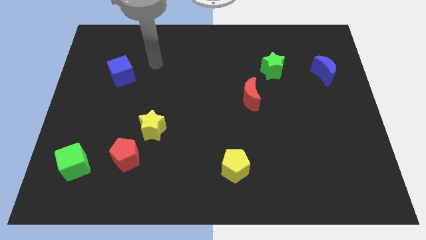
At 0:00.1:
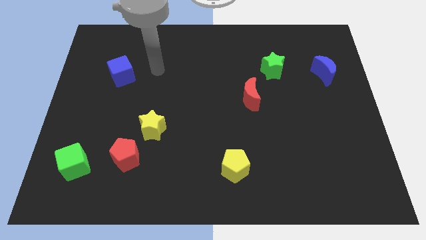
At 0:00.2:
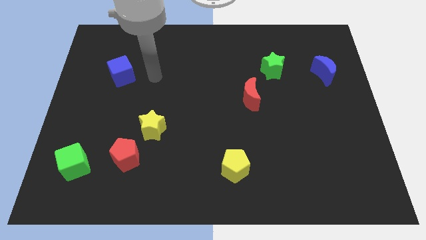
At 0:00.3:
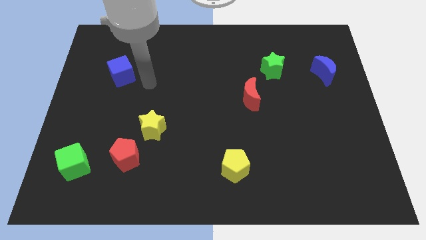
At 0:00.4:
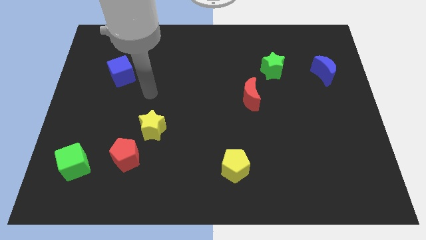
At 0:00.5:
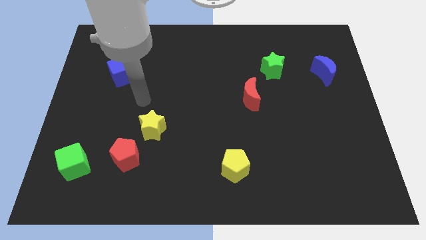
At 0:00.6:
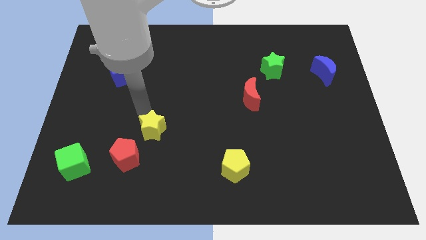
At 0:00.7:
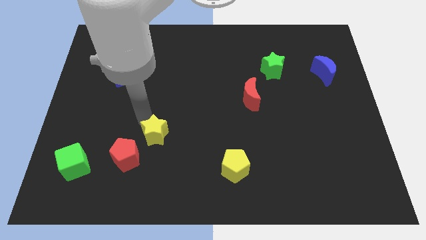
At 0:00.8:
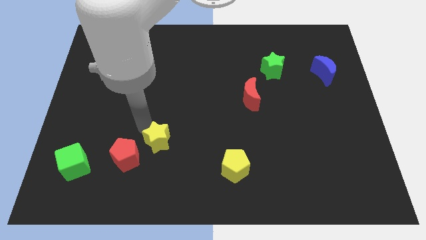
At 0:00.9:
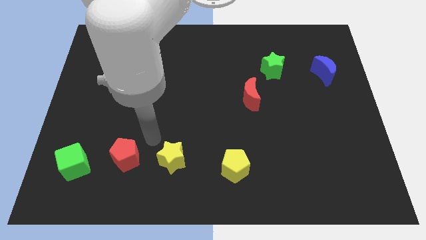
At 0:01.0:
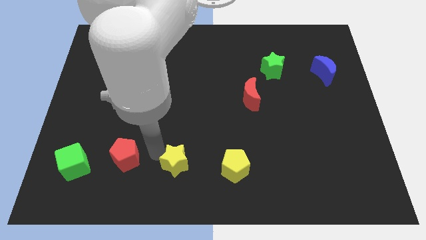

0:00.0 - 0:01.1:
pull the red pentagon apart from the yellow star

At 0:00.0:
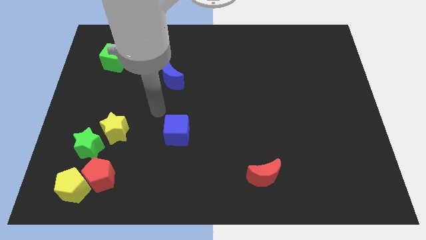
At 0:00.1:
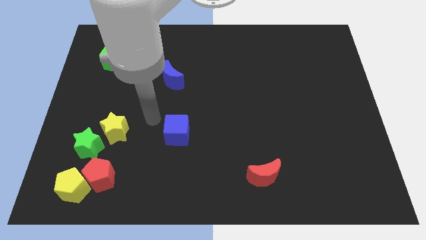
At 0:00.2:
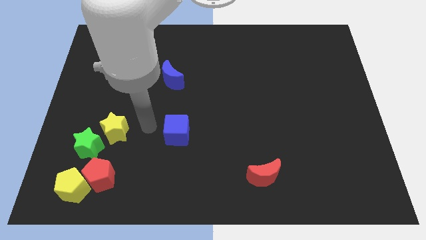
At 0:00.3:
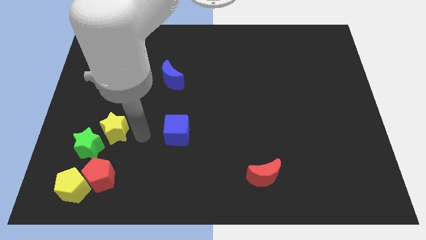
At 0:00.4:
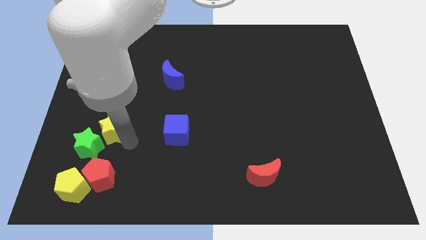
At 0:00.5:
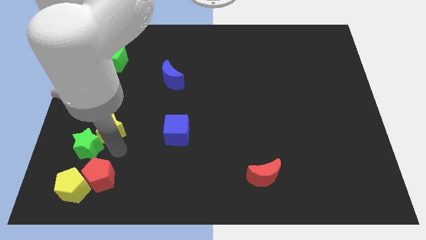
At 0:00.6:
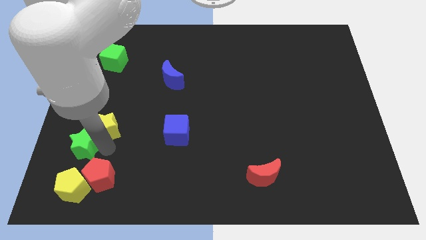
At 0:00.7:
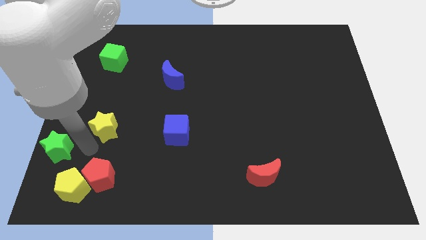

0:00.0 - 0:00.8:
move the yellow star away from the green star

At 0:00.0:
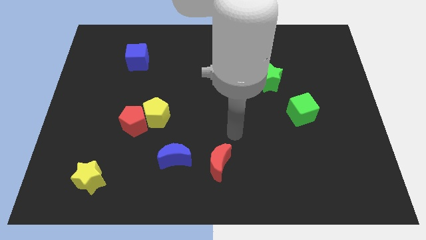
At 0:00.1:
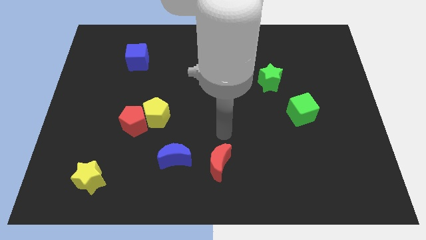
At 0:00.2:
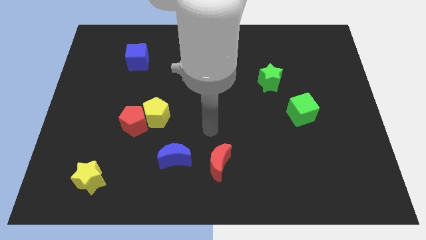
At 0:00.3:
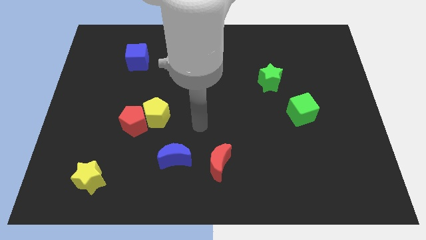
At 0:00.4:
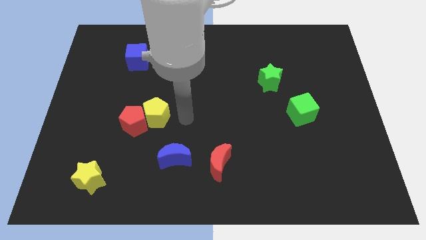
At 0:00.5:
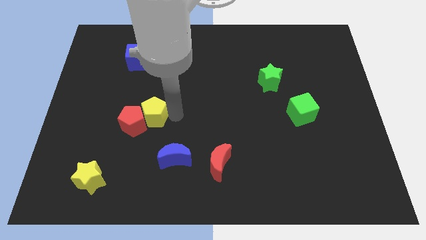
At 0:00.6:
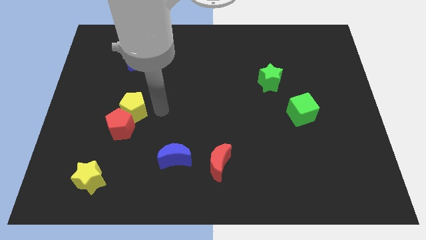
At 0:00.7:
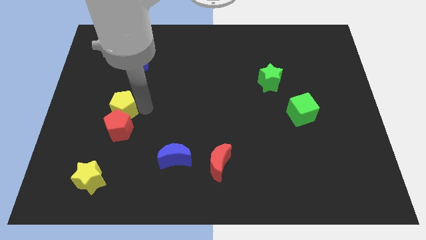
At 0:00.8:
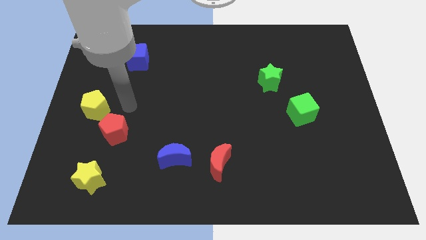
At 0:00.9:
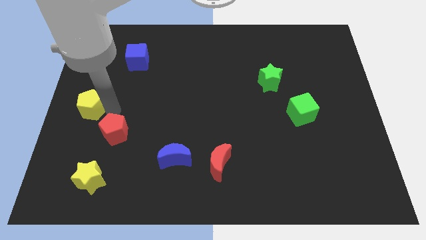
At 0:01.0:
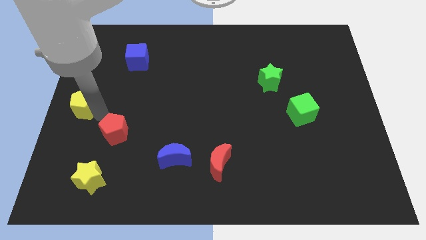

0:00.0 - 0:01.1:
separate the red pentagon from the yellow pentagon

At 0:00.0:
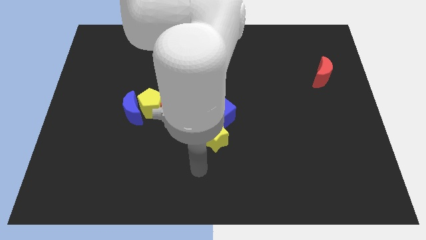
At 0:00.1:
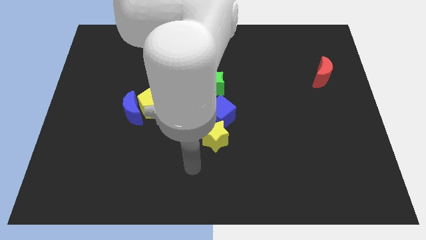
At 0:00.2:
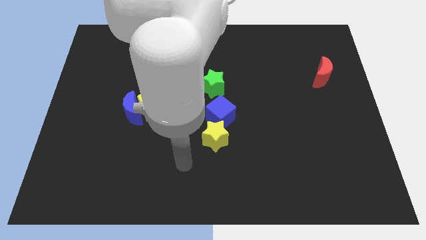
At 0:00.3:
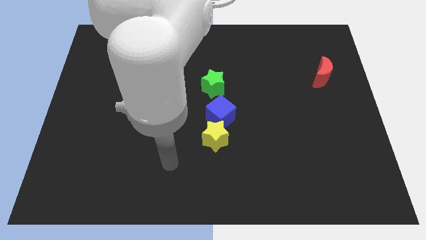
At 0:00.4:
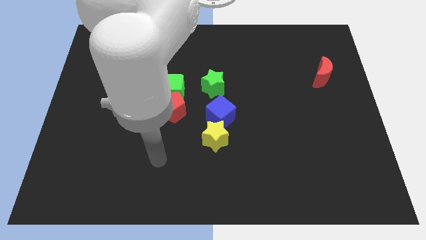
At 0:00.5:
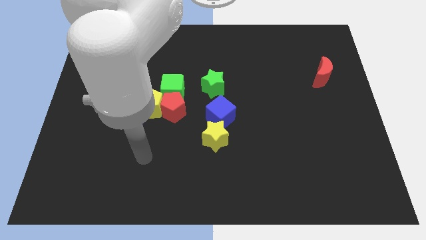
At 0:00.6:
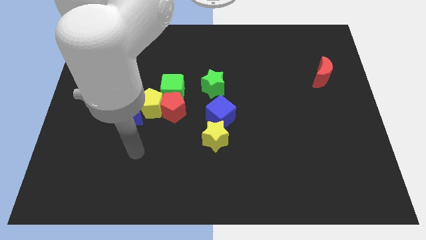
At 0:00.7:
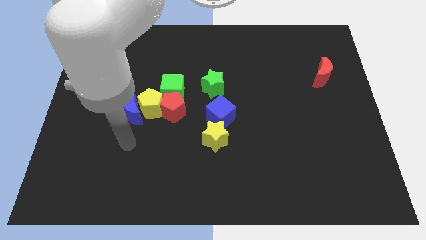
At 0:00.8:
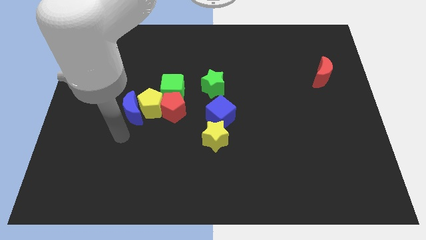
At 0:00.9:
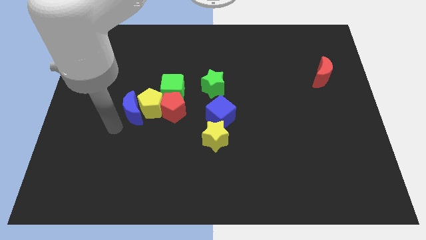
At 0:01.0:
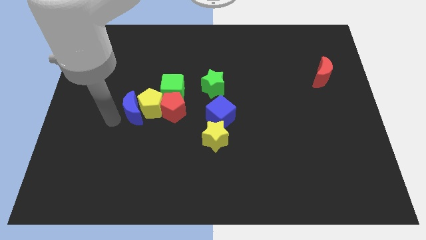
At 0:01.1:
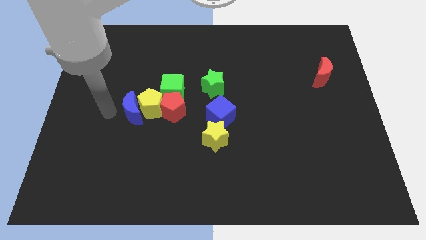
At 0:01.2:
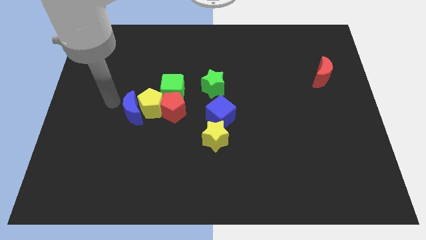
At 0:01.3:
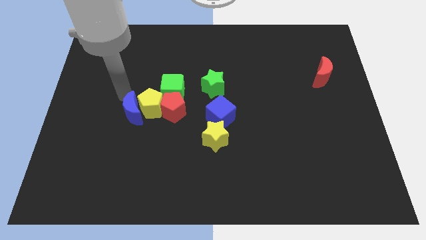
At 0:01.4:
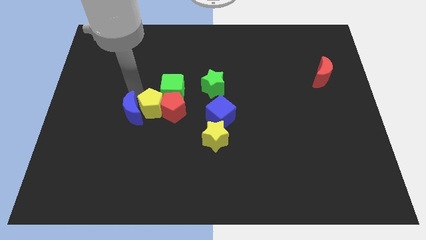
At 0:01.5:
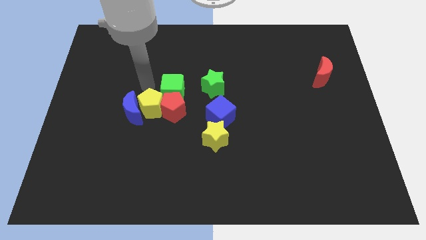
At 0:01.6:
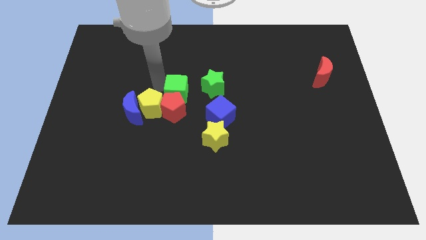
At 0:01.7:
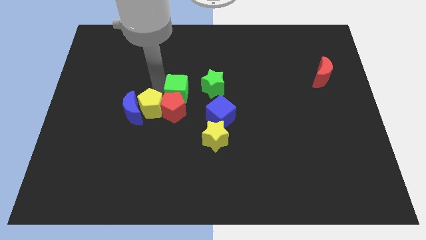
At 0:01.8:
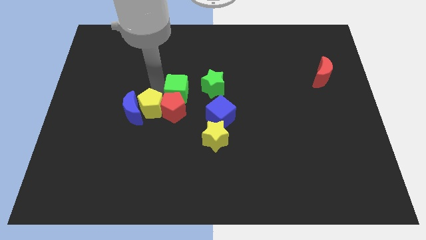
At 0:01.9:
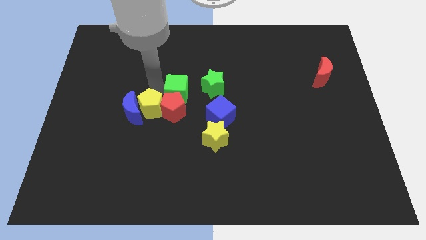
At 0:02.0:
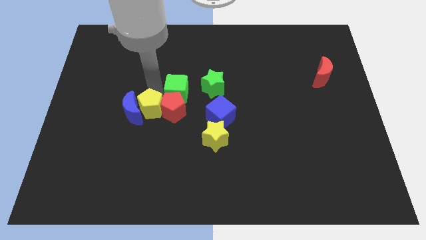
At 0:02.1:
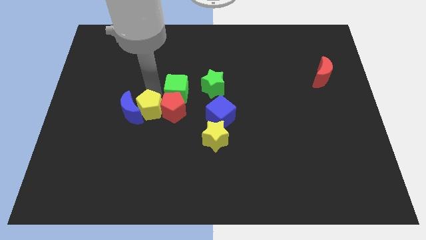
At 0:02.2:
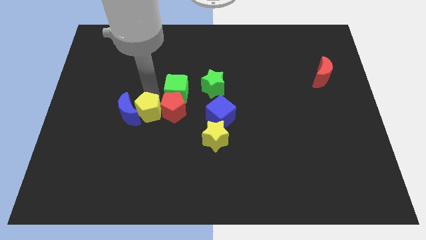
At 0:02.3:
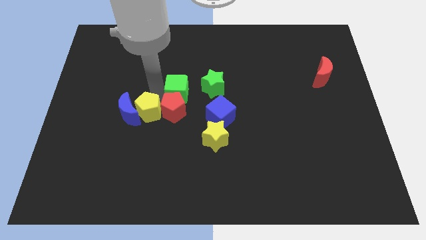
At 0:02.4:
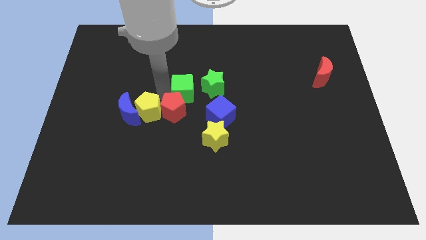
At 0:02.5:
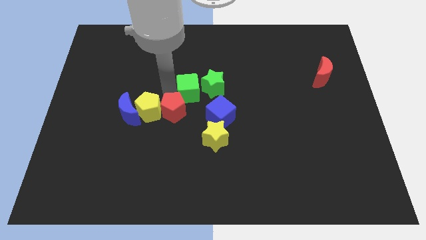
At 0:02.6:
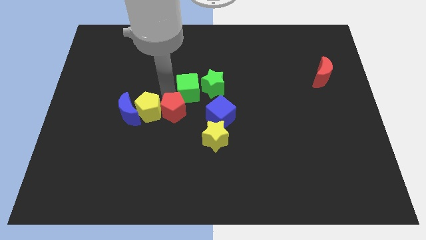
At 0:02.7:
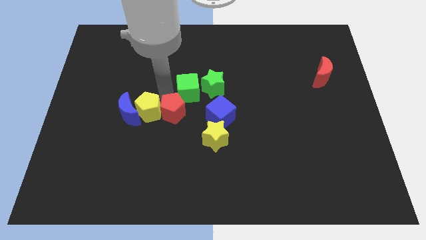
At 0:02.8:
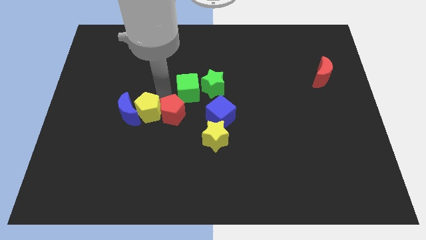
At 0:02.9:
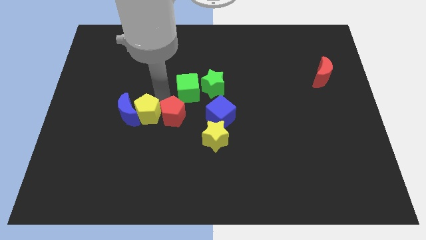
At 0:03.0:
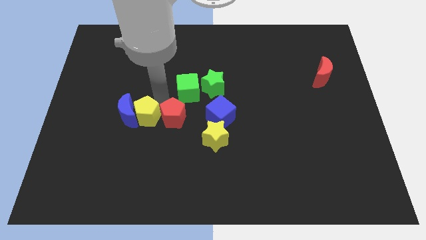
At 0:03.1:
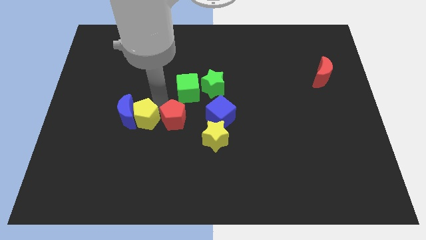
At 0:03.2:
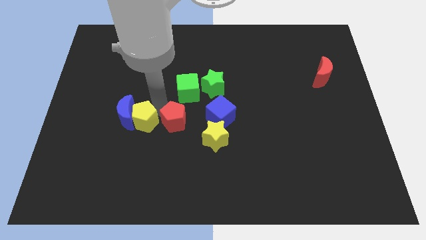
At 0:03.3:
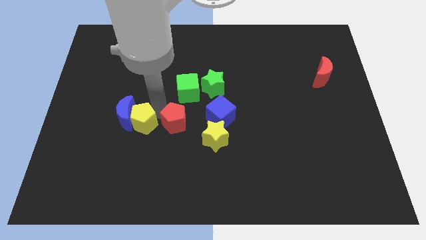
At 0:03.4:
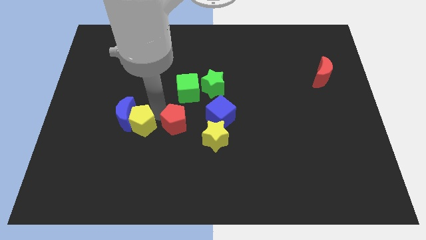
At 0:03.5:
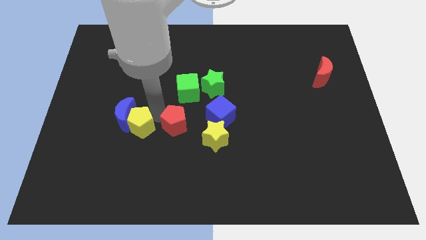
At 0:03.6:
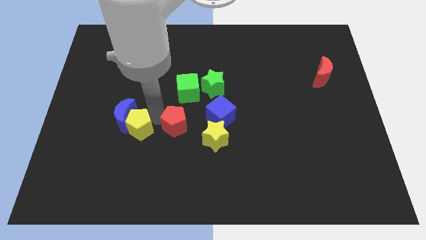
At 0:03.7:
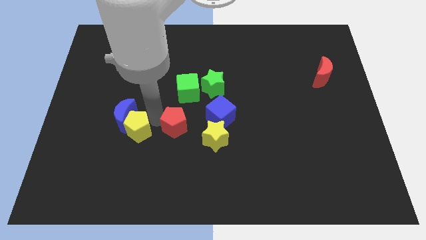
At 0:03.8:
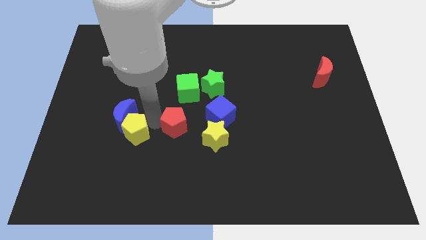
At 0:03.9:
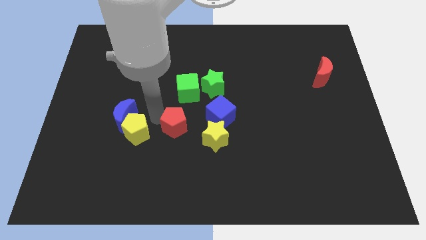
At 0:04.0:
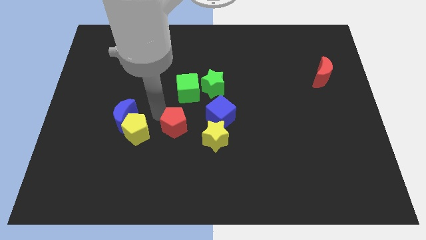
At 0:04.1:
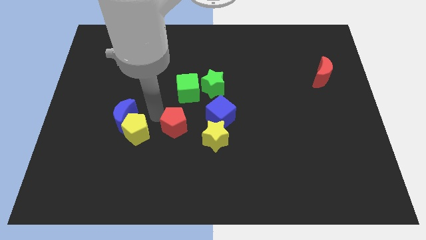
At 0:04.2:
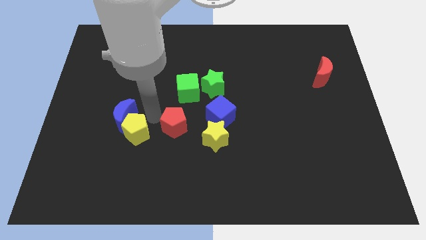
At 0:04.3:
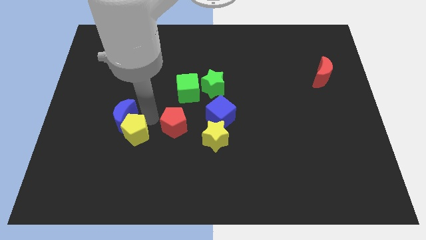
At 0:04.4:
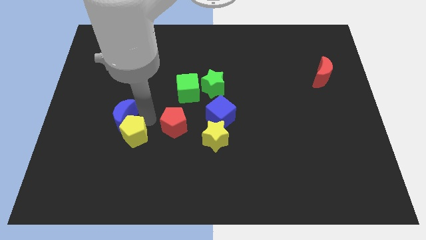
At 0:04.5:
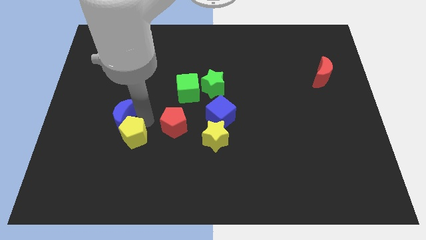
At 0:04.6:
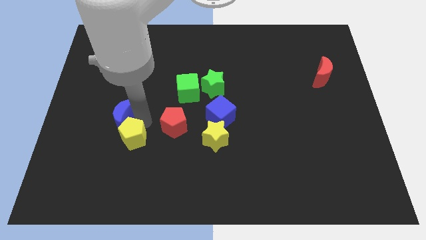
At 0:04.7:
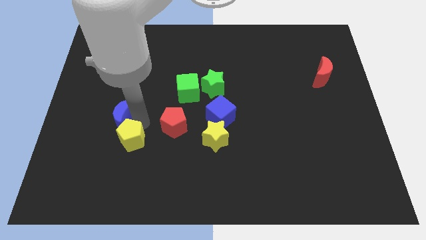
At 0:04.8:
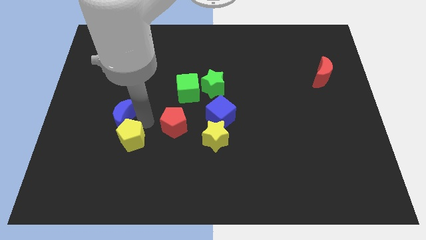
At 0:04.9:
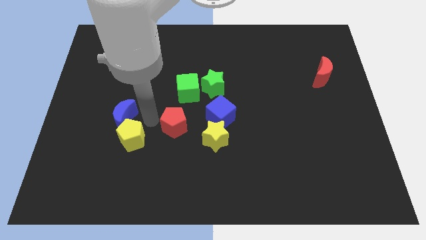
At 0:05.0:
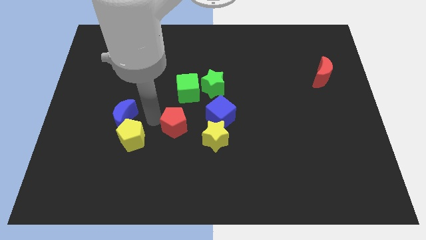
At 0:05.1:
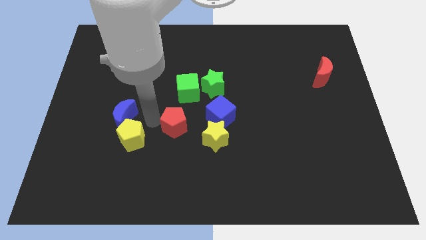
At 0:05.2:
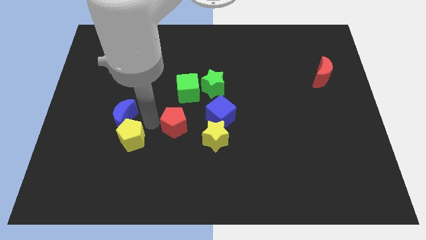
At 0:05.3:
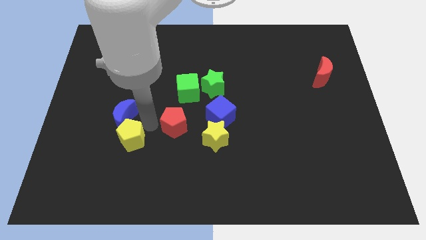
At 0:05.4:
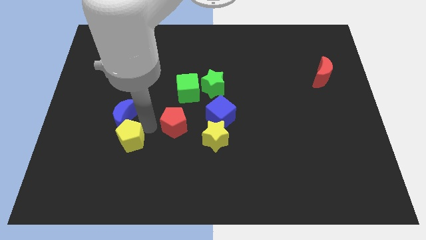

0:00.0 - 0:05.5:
separate the yellow pentagon from the group

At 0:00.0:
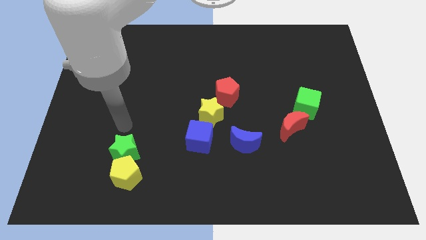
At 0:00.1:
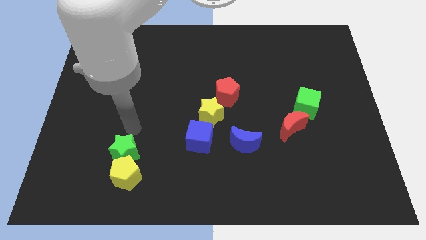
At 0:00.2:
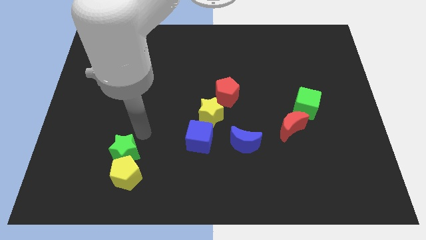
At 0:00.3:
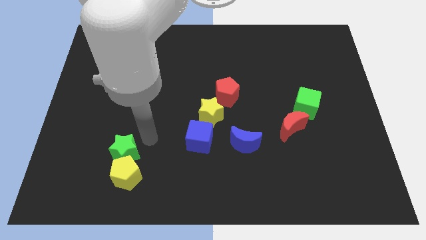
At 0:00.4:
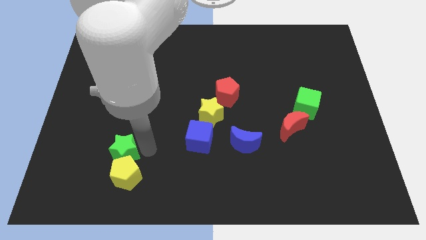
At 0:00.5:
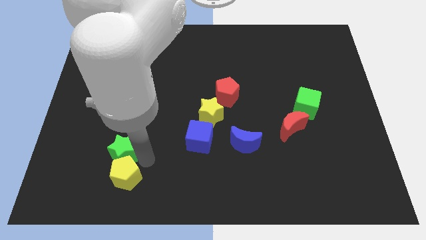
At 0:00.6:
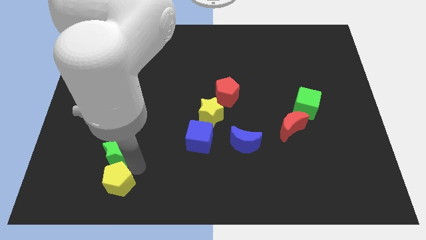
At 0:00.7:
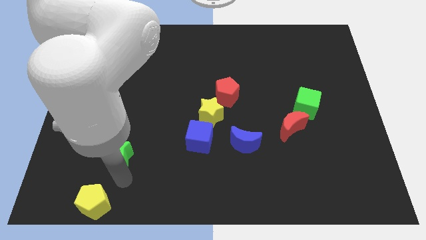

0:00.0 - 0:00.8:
separate the green star from the yellow pentagon

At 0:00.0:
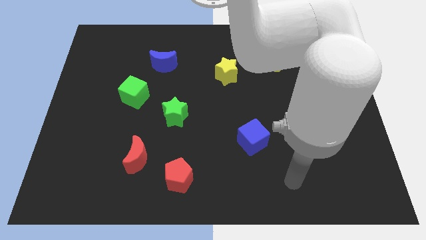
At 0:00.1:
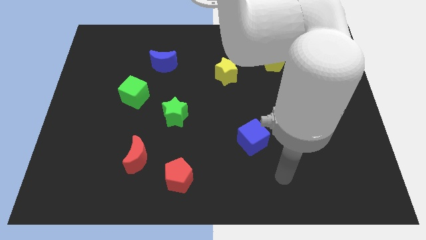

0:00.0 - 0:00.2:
pull the red moon apart from the red pentagon
